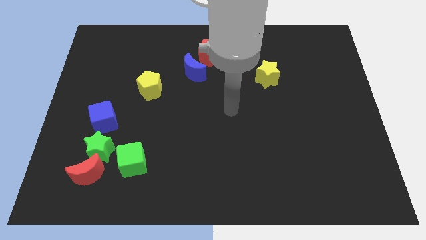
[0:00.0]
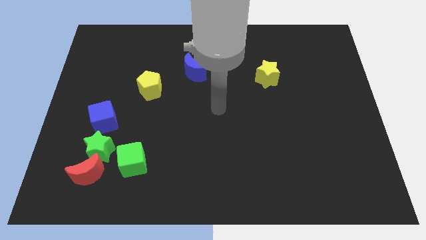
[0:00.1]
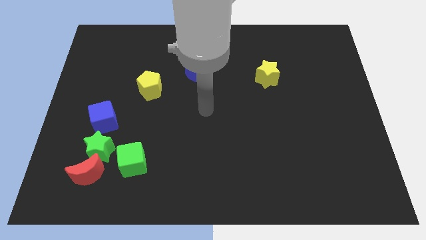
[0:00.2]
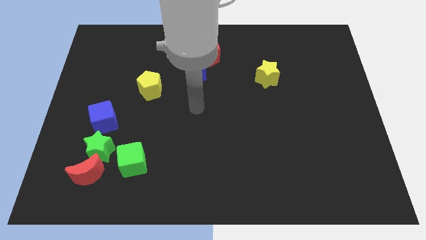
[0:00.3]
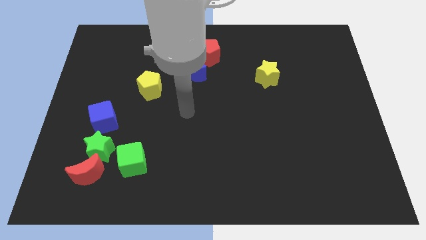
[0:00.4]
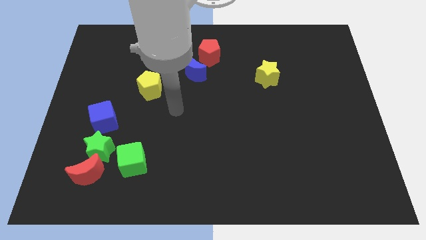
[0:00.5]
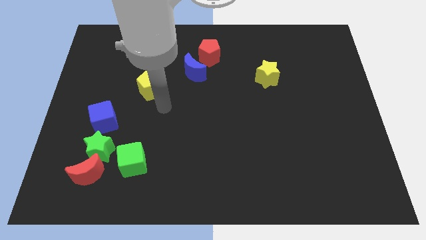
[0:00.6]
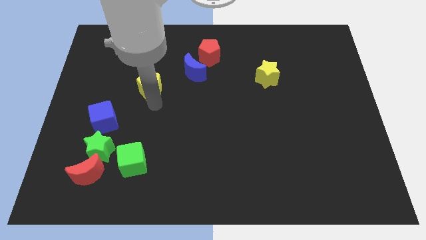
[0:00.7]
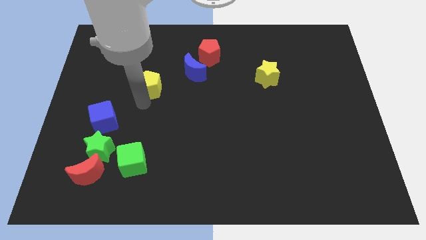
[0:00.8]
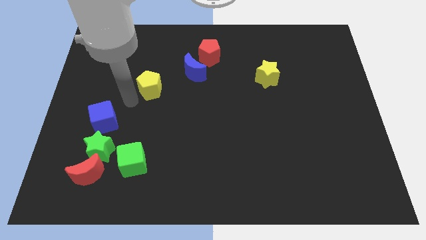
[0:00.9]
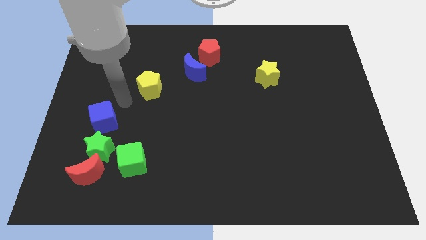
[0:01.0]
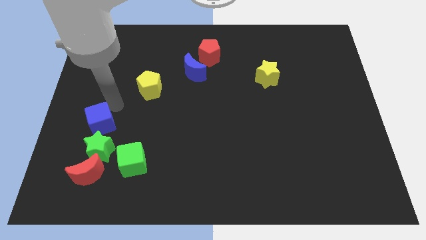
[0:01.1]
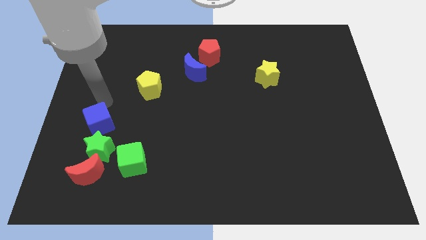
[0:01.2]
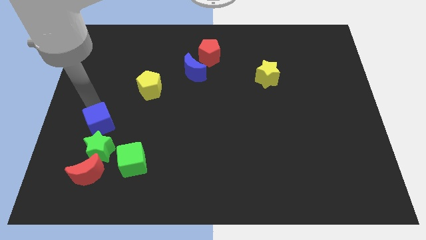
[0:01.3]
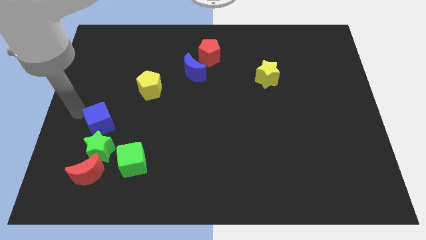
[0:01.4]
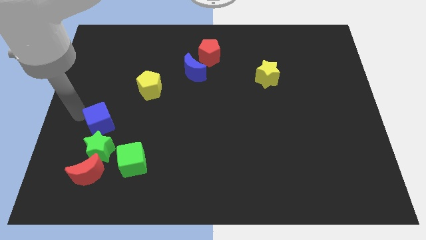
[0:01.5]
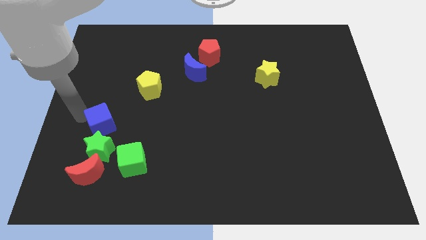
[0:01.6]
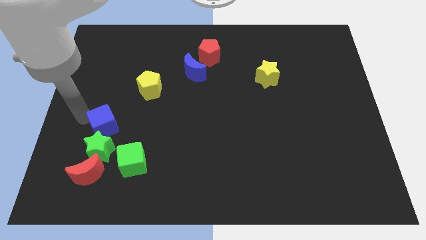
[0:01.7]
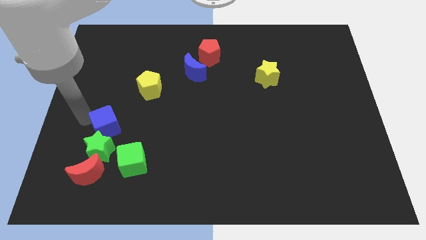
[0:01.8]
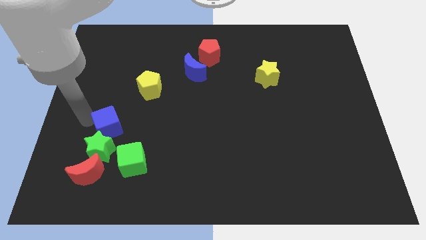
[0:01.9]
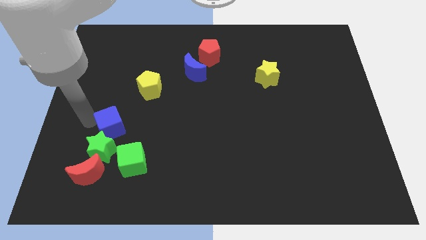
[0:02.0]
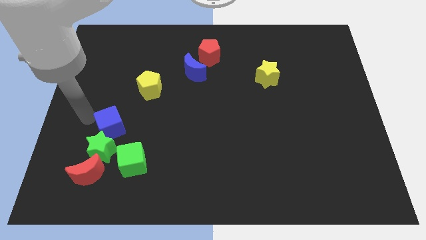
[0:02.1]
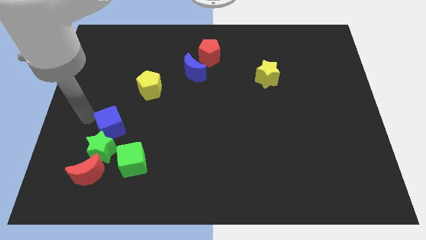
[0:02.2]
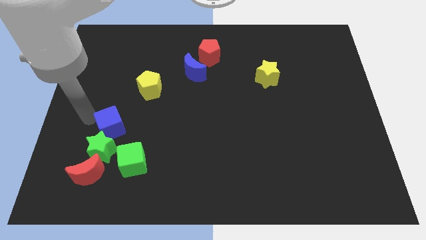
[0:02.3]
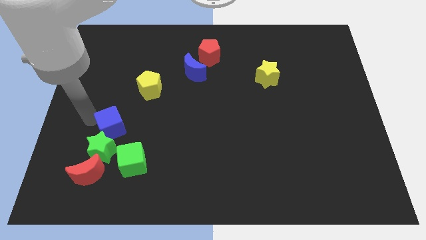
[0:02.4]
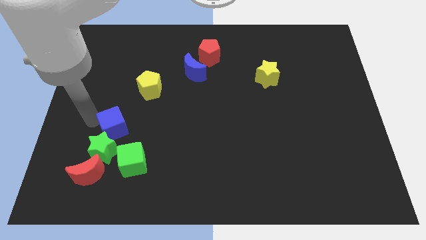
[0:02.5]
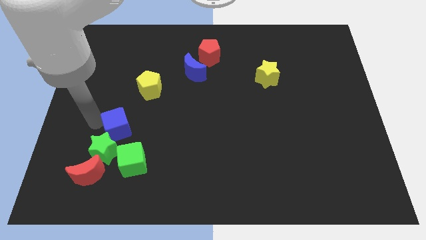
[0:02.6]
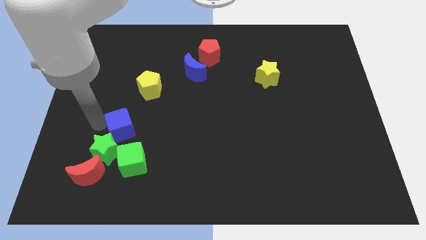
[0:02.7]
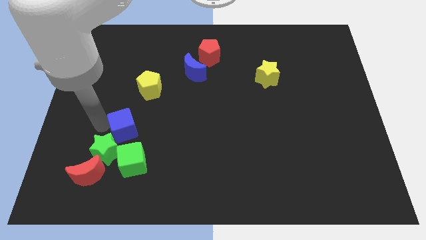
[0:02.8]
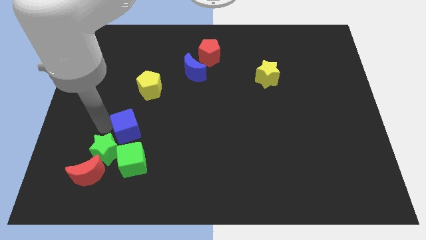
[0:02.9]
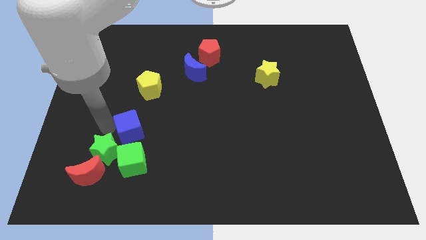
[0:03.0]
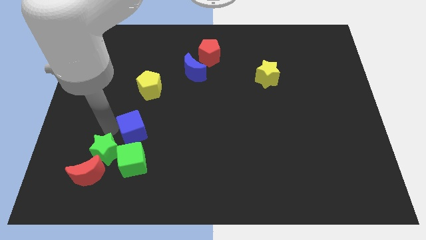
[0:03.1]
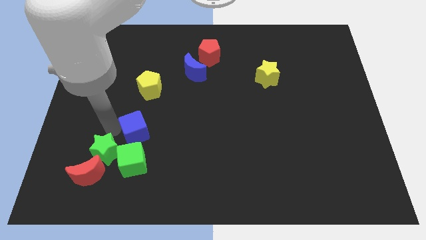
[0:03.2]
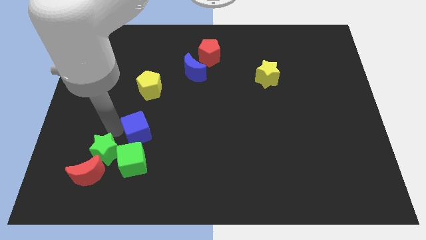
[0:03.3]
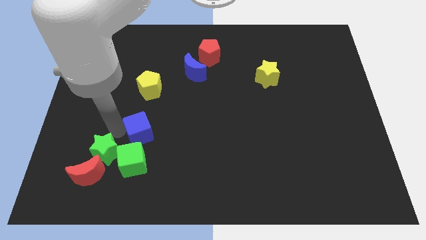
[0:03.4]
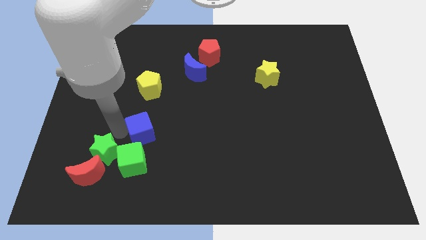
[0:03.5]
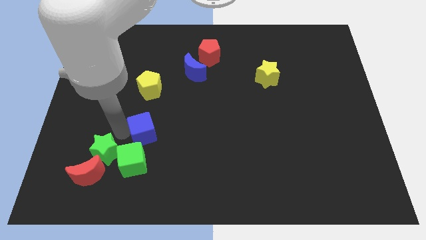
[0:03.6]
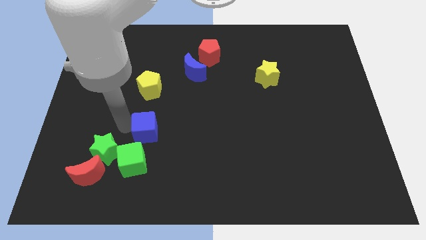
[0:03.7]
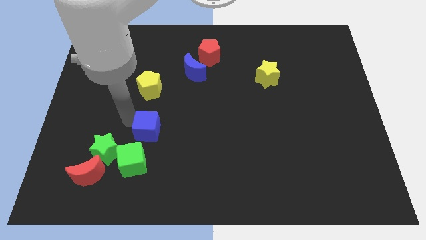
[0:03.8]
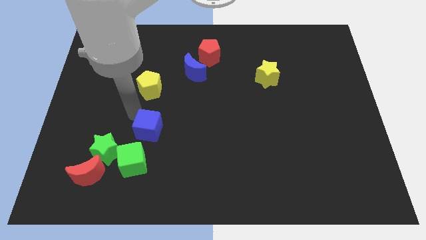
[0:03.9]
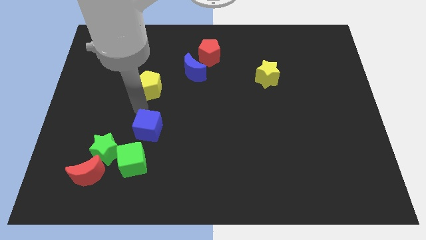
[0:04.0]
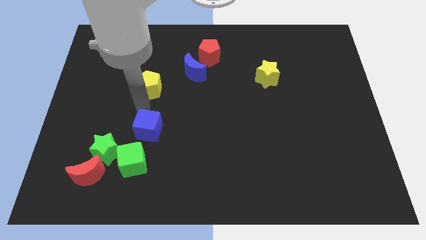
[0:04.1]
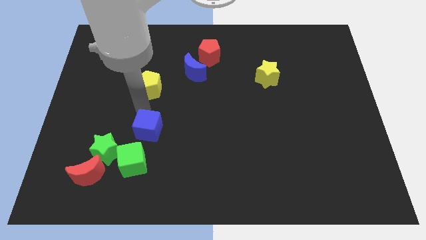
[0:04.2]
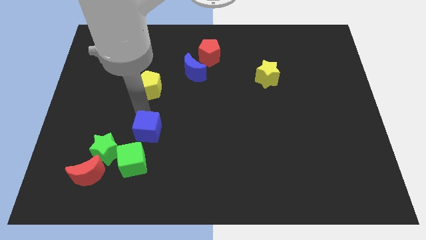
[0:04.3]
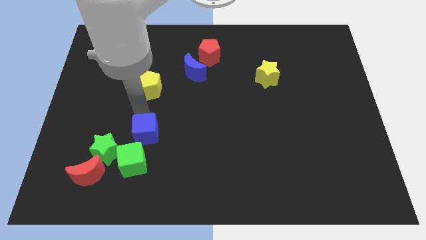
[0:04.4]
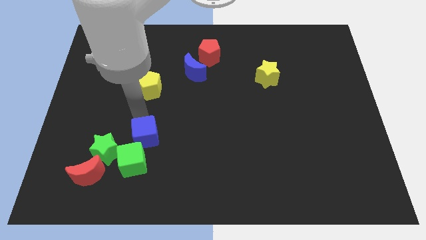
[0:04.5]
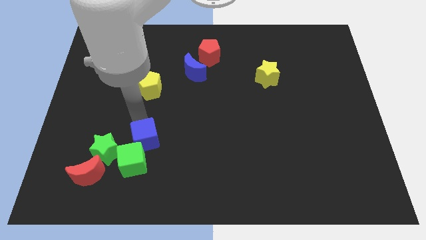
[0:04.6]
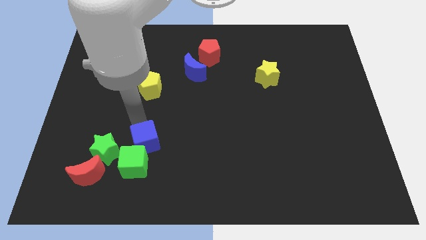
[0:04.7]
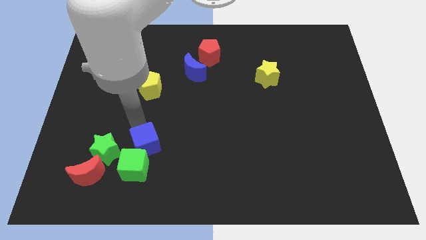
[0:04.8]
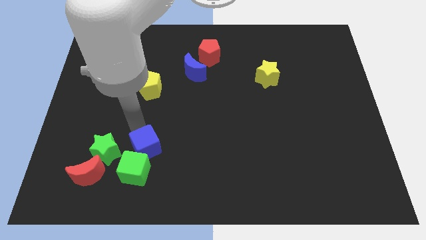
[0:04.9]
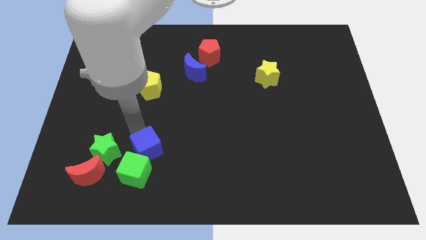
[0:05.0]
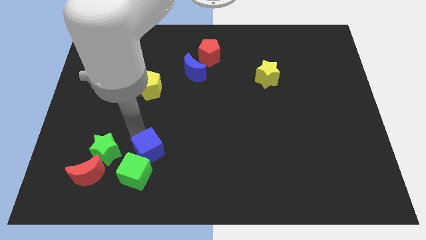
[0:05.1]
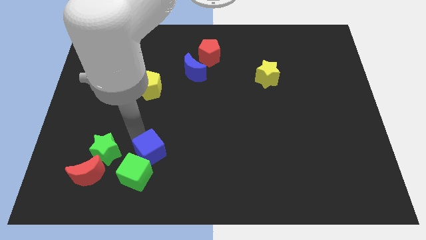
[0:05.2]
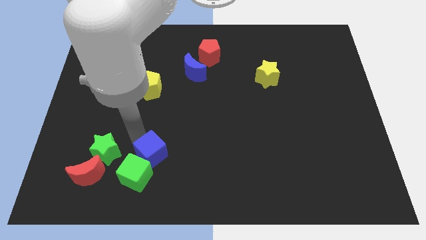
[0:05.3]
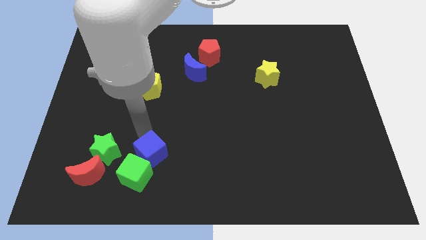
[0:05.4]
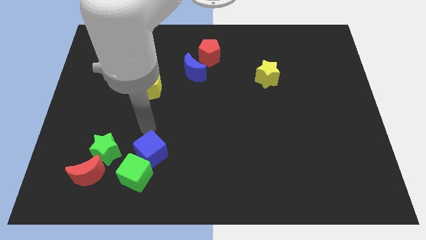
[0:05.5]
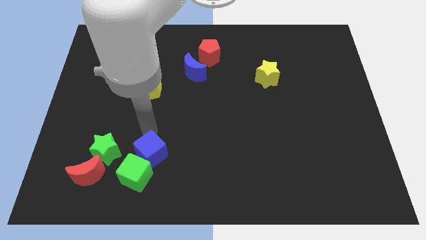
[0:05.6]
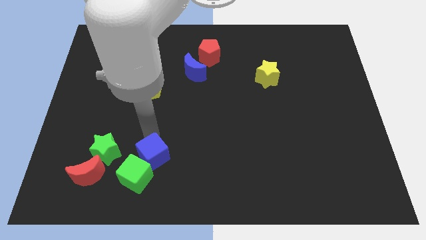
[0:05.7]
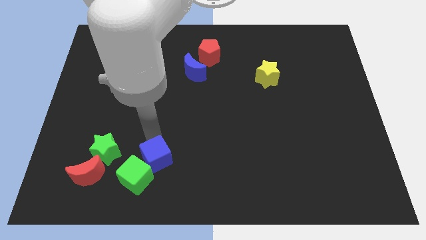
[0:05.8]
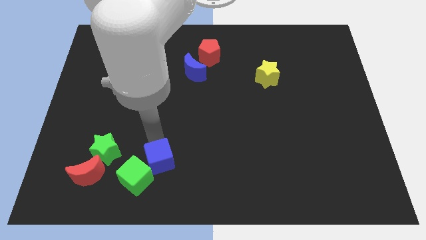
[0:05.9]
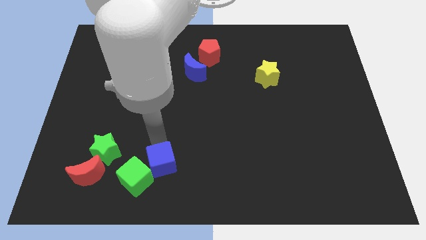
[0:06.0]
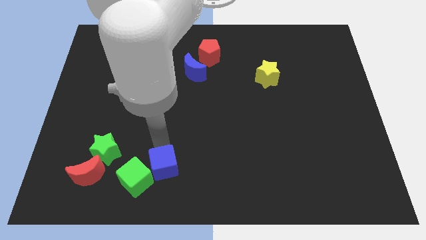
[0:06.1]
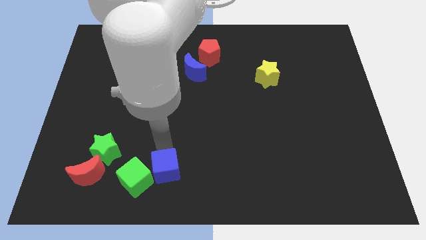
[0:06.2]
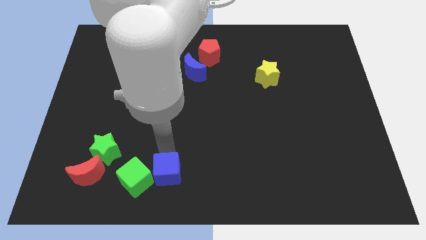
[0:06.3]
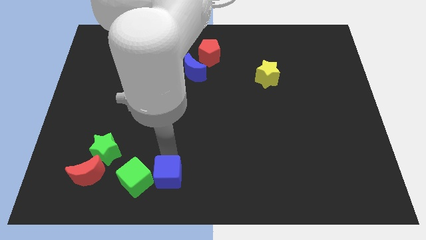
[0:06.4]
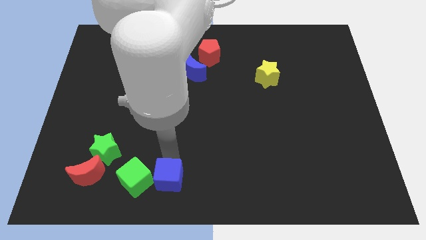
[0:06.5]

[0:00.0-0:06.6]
push the blue cube diagonally down and to the right of the green cube
